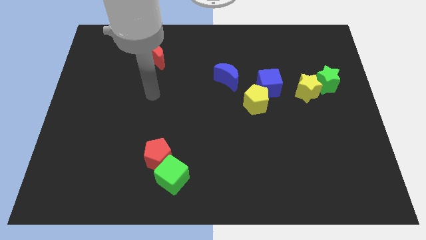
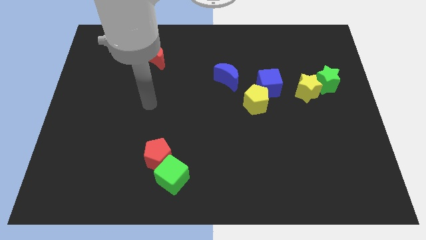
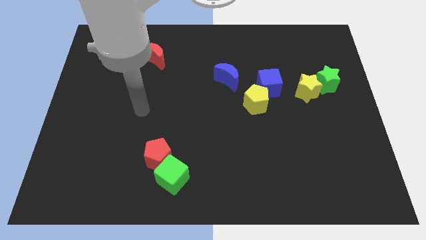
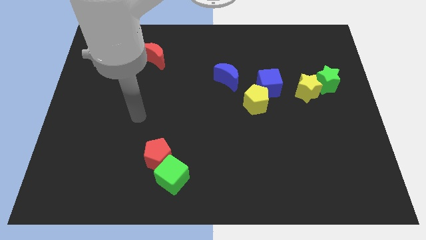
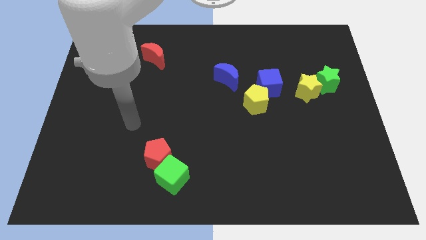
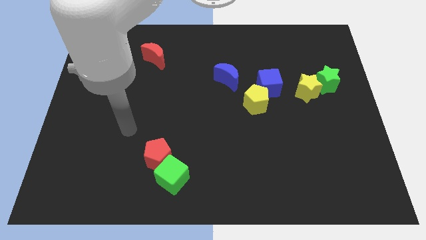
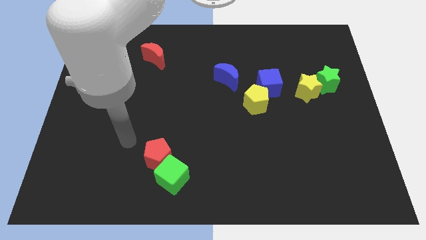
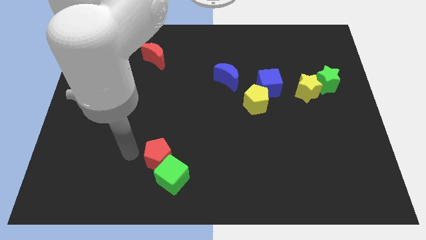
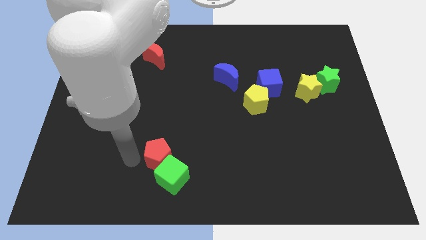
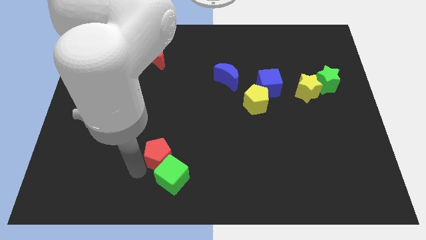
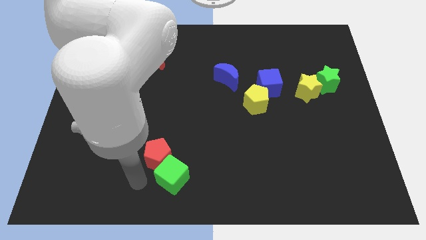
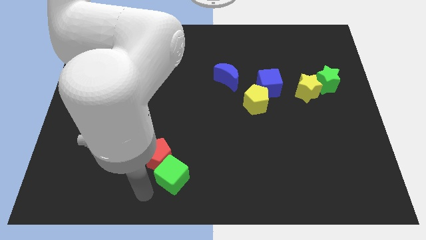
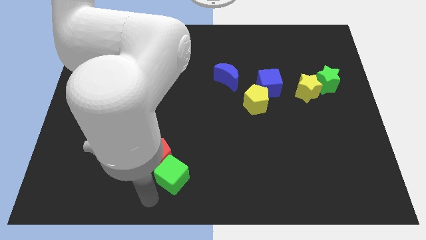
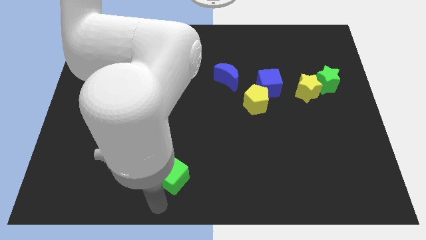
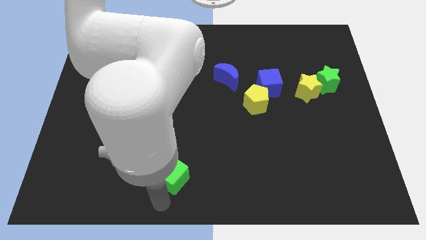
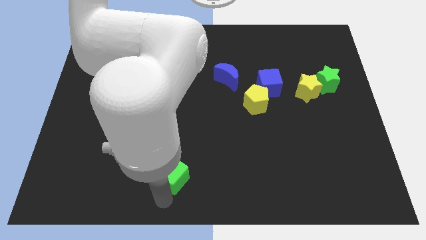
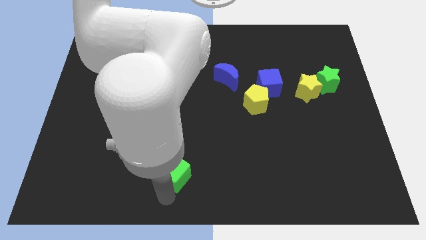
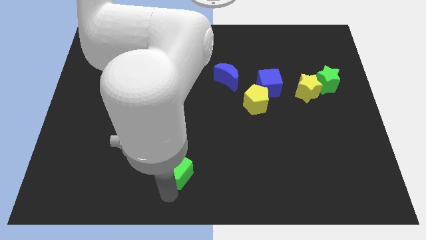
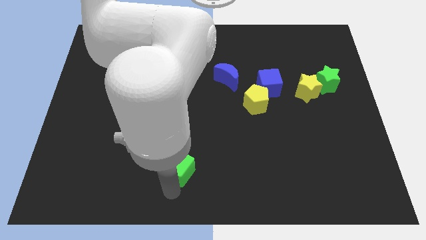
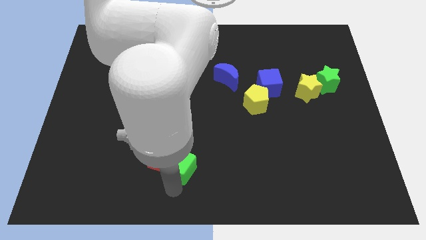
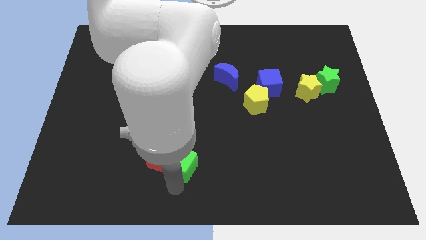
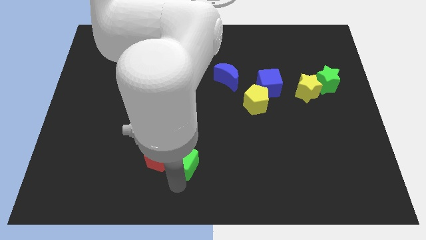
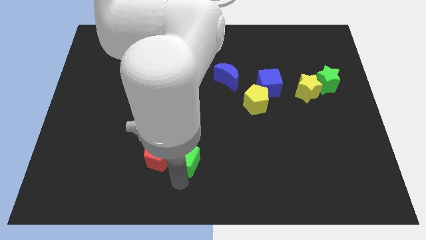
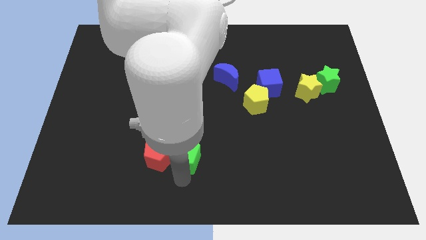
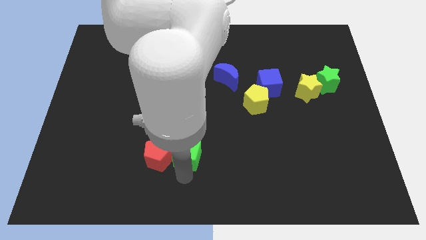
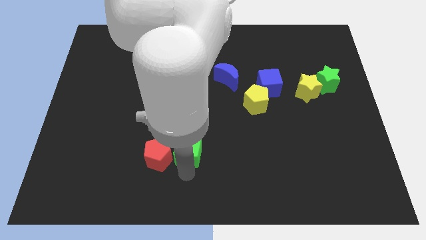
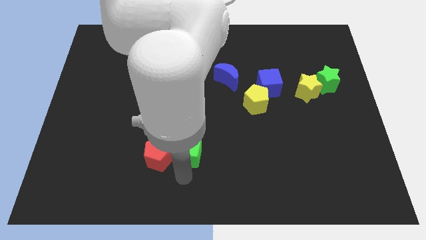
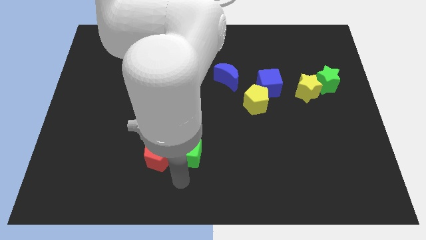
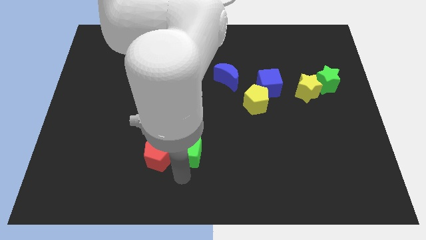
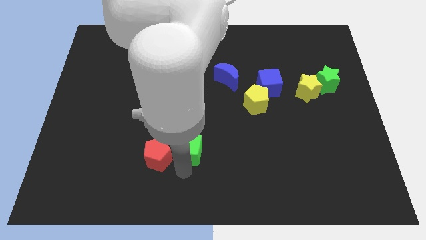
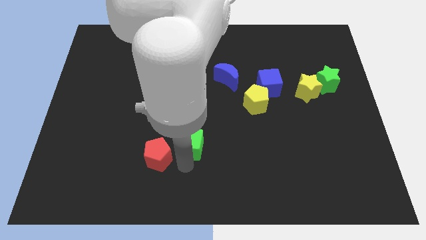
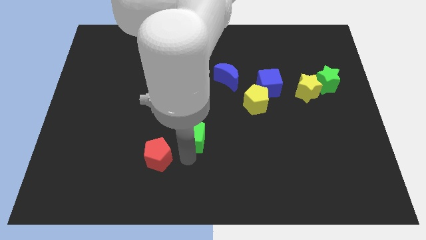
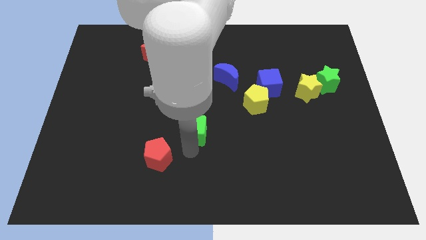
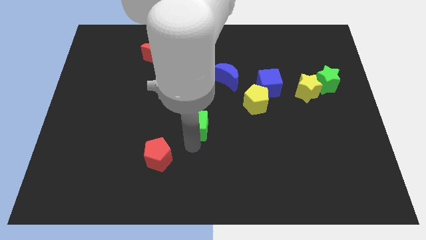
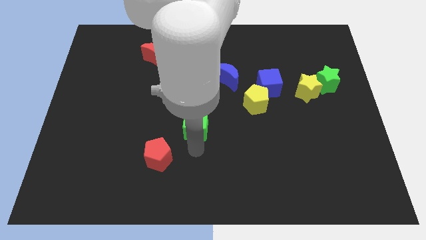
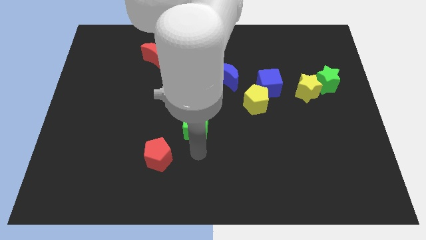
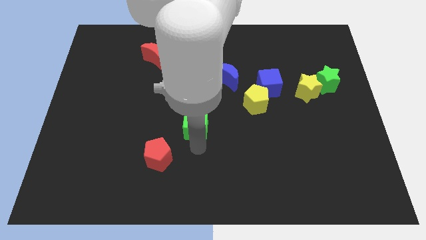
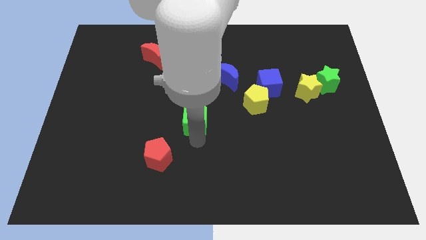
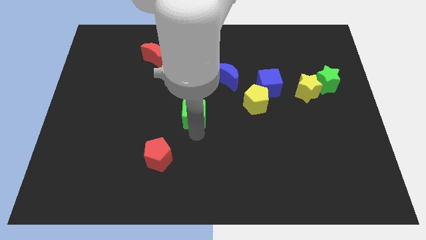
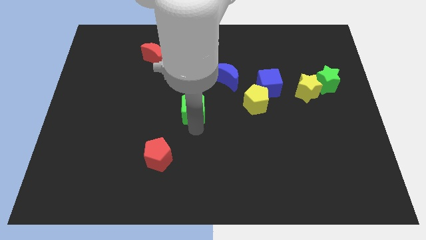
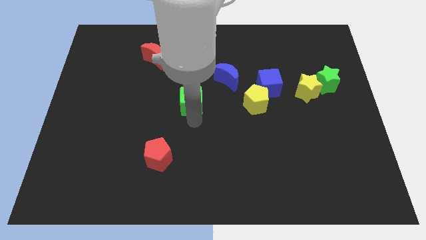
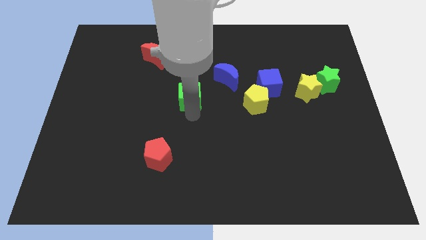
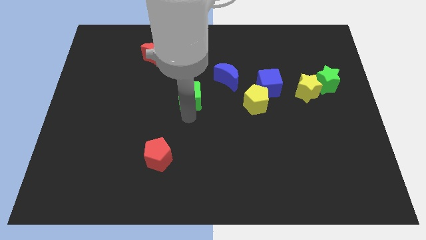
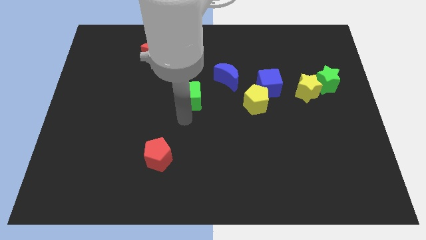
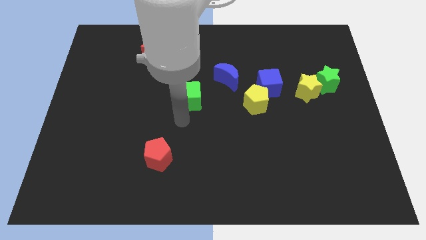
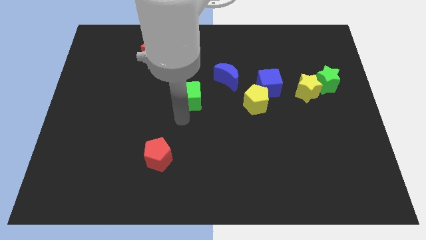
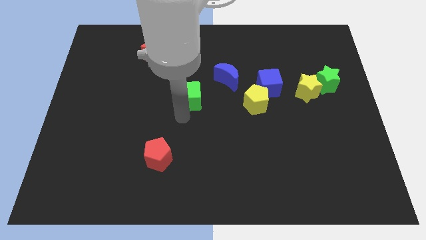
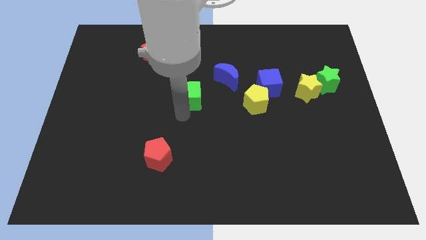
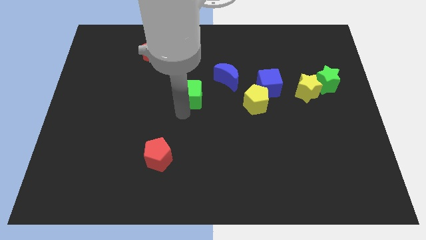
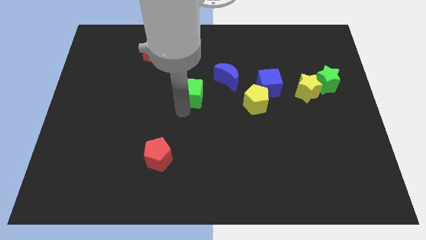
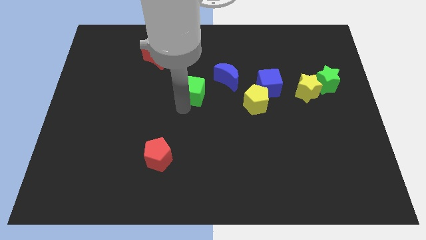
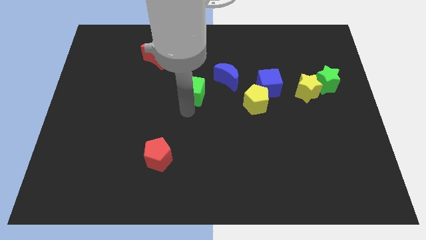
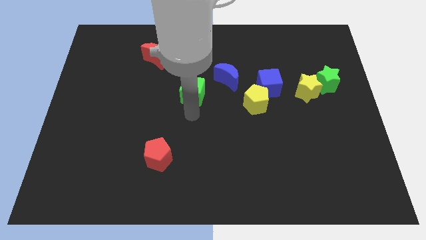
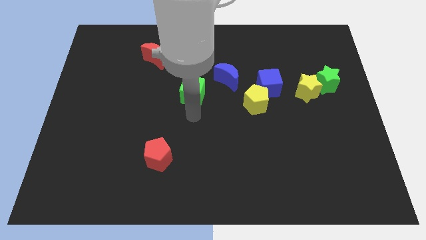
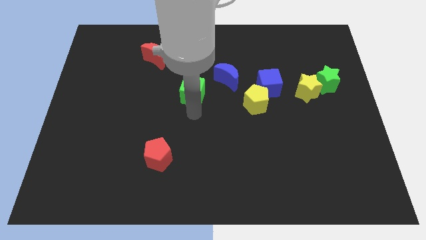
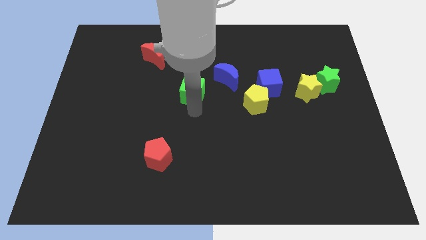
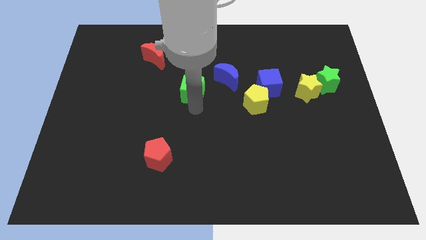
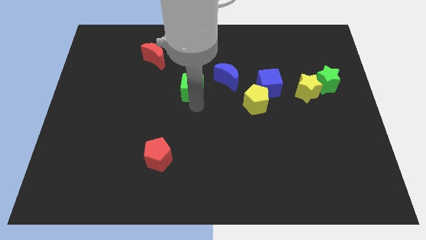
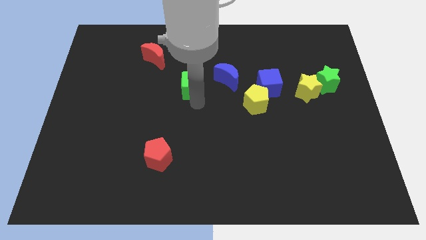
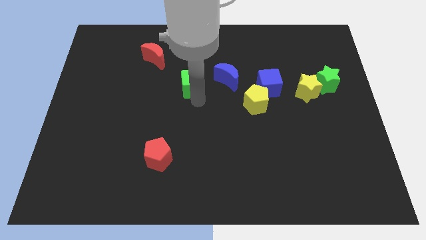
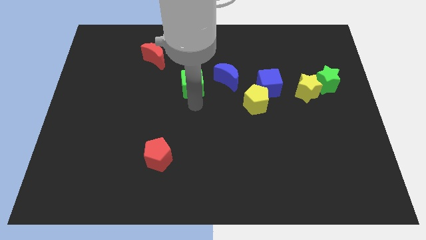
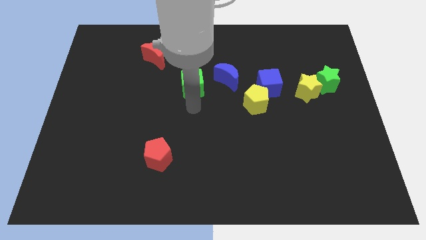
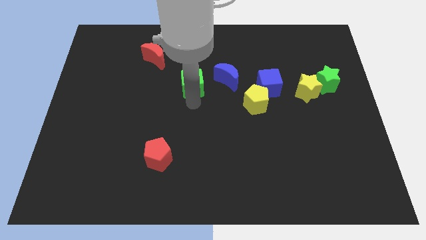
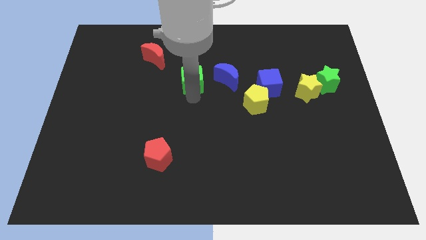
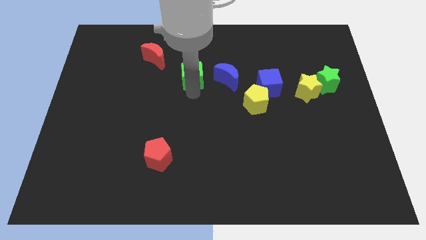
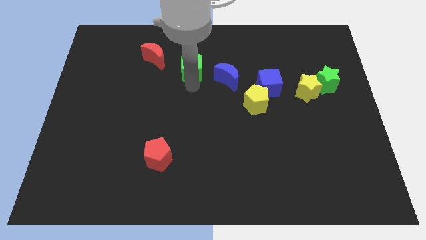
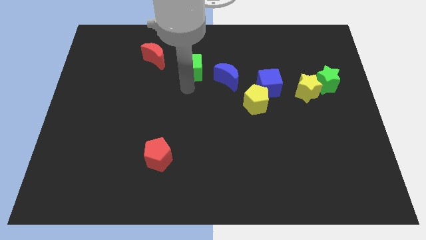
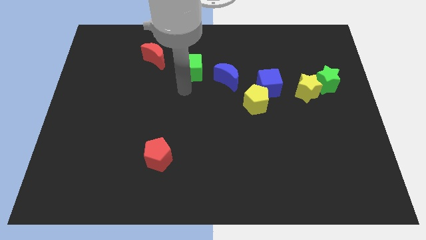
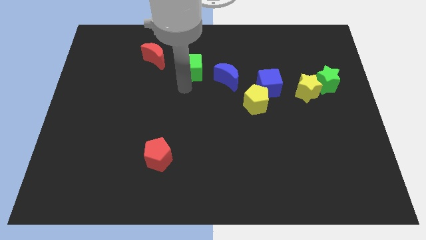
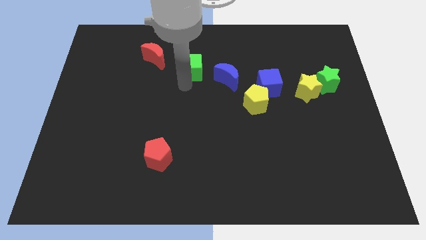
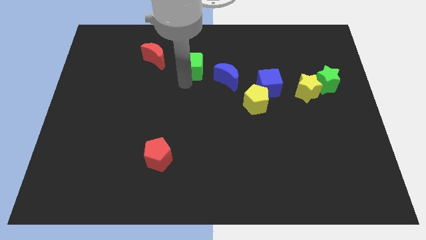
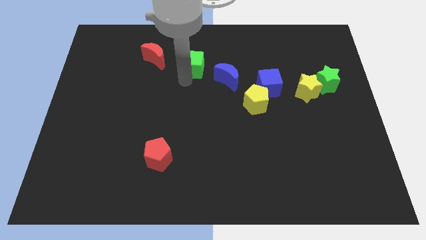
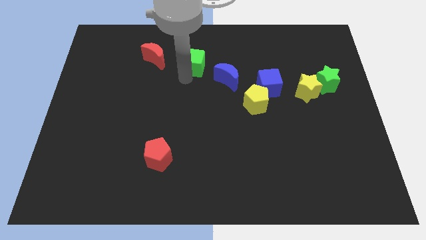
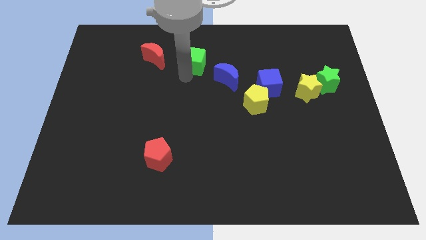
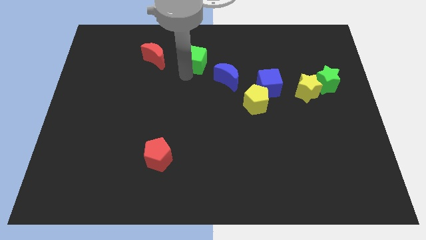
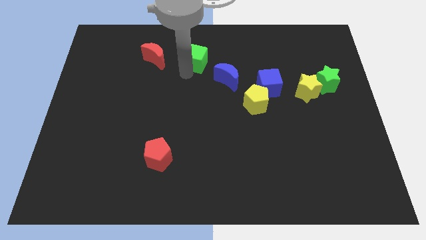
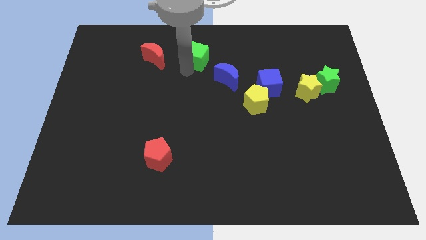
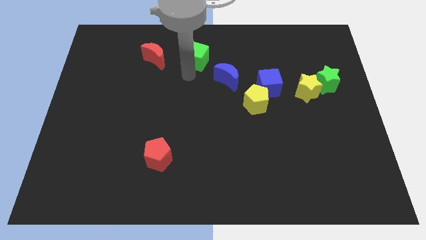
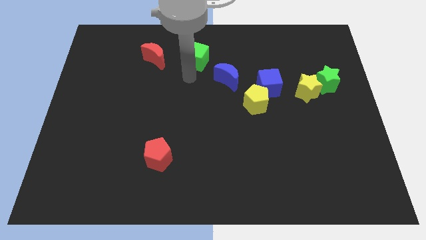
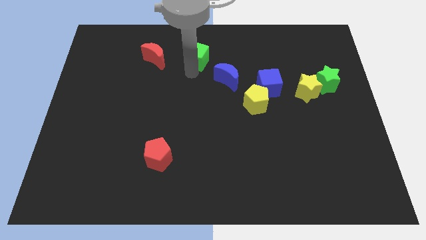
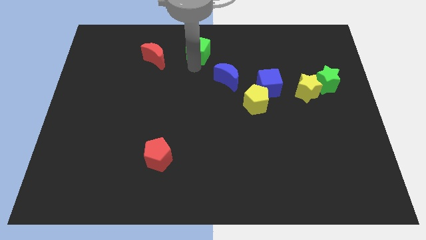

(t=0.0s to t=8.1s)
slide the green cube to the towards your base
